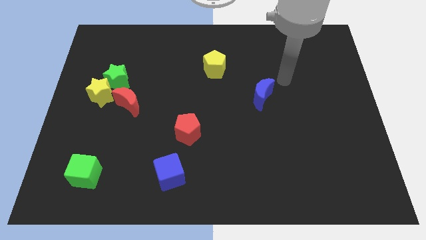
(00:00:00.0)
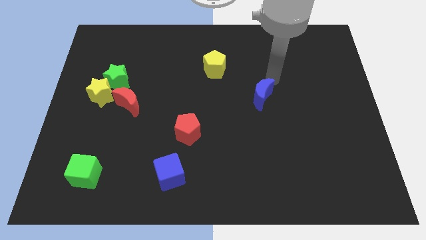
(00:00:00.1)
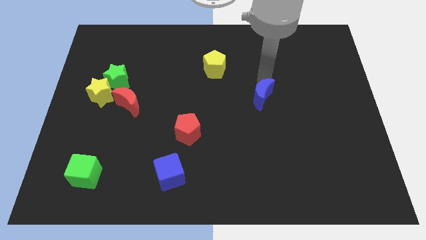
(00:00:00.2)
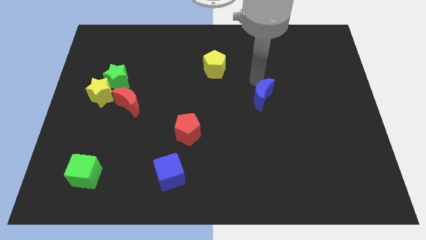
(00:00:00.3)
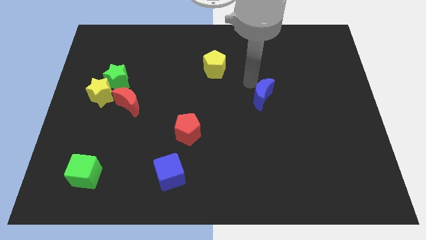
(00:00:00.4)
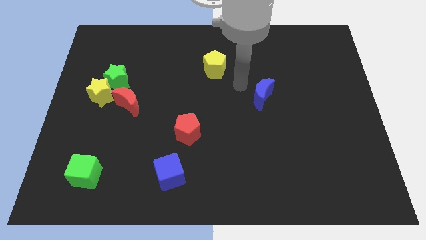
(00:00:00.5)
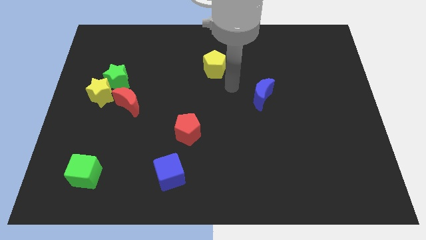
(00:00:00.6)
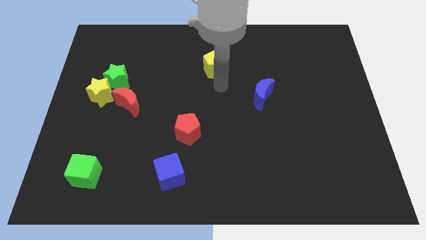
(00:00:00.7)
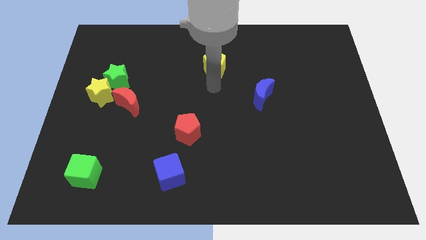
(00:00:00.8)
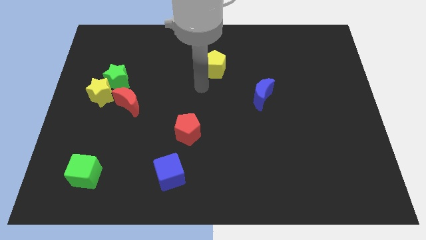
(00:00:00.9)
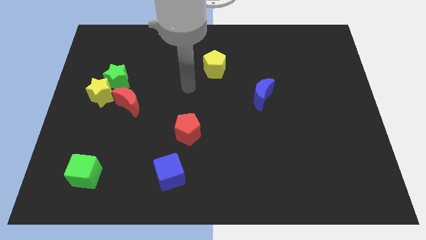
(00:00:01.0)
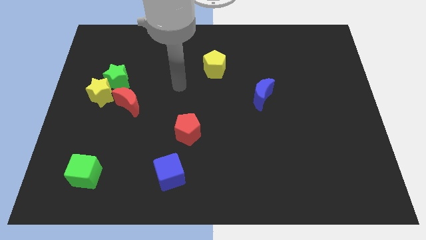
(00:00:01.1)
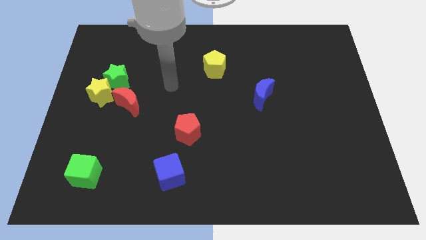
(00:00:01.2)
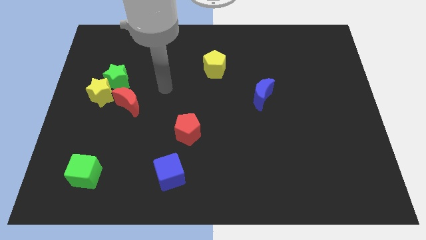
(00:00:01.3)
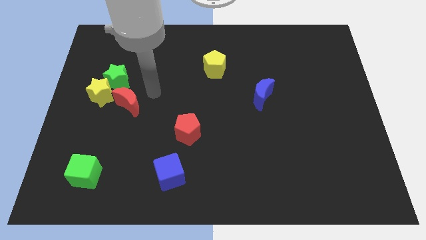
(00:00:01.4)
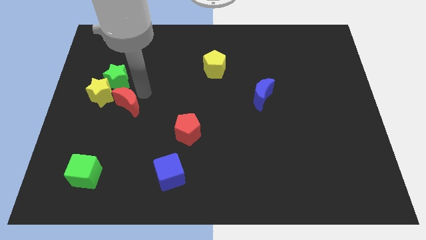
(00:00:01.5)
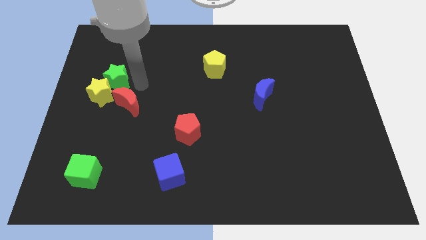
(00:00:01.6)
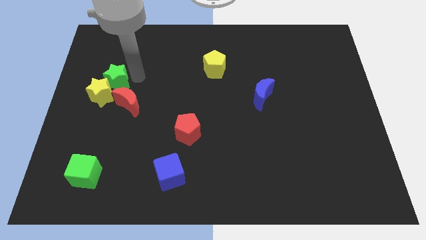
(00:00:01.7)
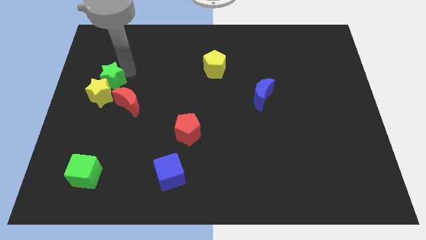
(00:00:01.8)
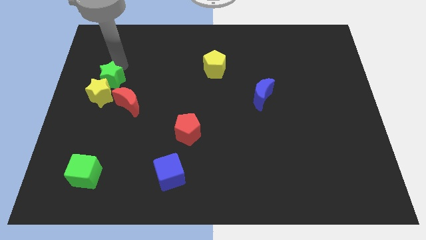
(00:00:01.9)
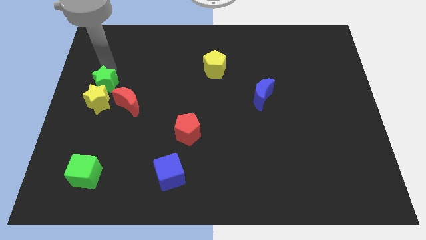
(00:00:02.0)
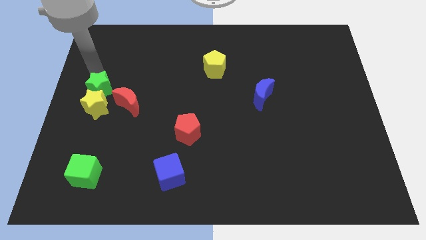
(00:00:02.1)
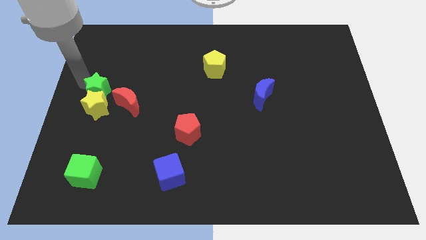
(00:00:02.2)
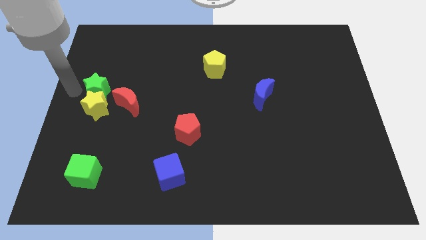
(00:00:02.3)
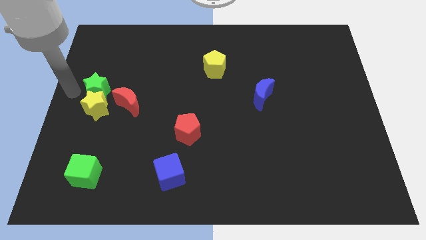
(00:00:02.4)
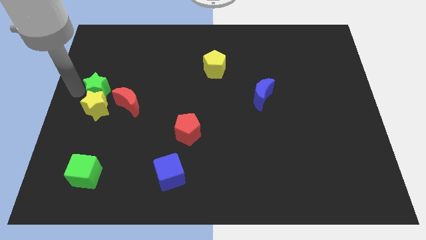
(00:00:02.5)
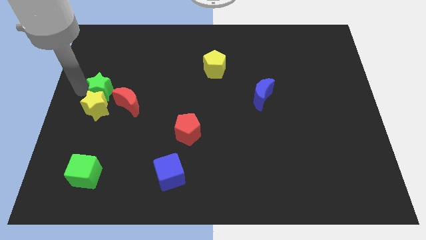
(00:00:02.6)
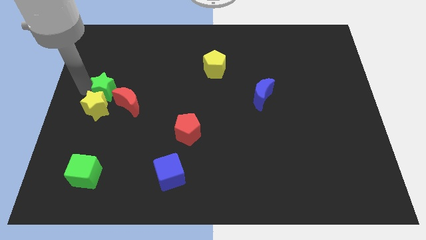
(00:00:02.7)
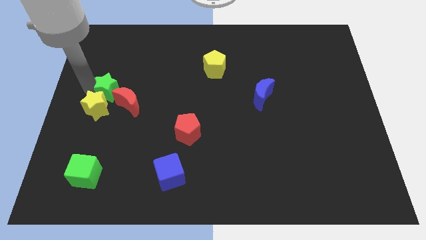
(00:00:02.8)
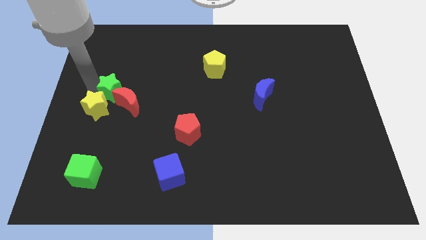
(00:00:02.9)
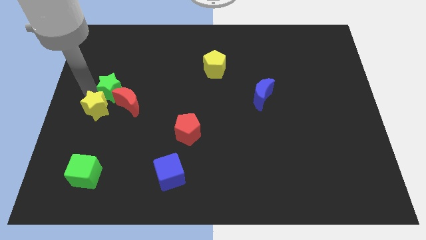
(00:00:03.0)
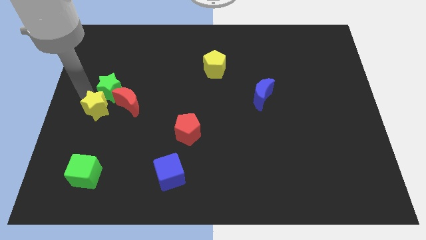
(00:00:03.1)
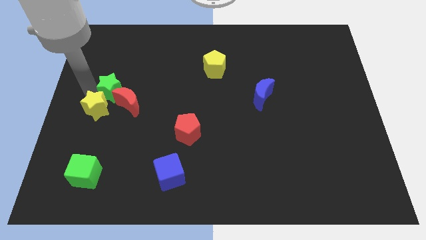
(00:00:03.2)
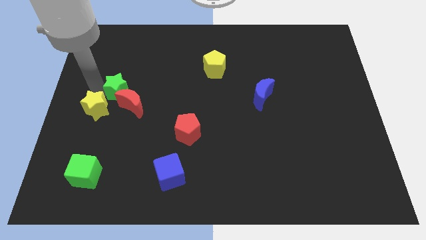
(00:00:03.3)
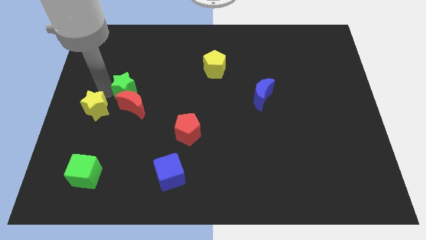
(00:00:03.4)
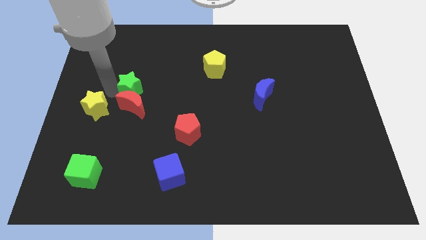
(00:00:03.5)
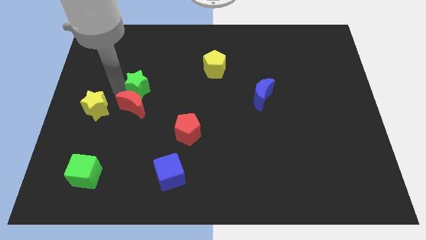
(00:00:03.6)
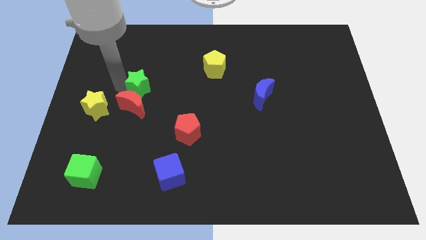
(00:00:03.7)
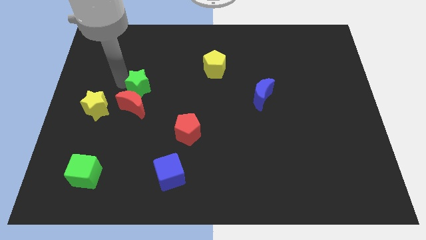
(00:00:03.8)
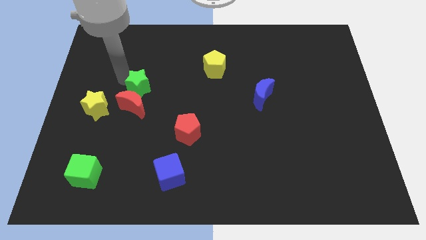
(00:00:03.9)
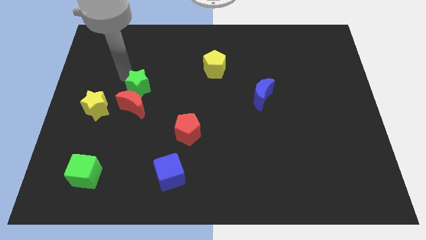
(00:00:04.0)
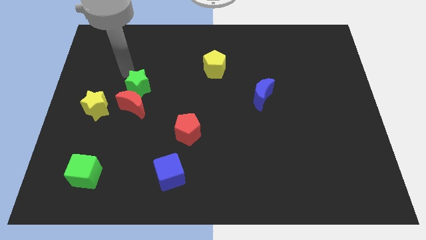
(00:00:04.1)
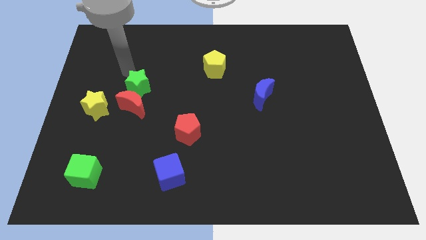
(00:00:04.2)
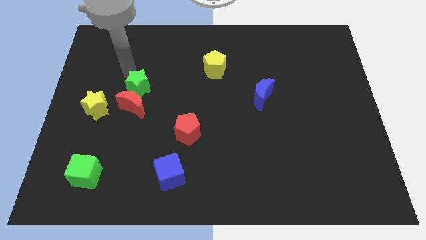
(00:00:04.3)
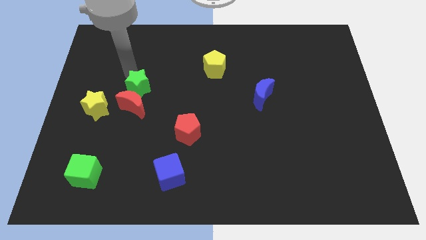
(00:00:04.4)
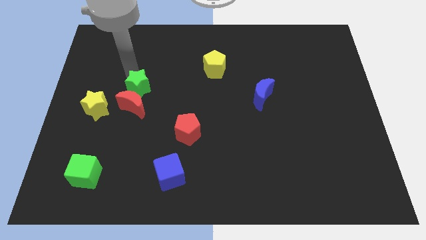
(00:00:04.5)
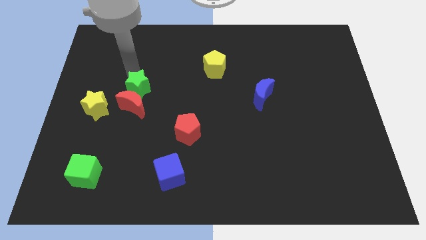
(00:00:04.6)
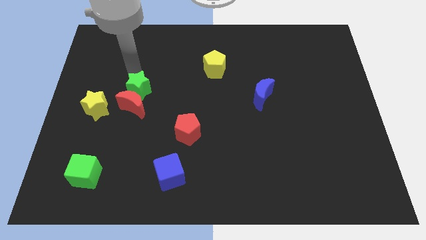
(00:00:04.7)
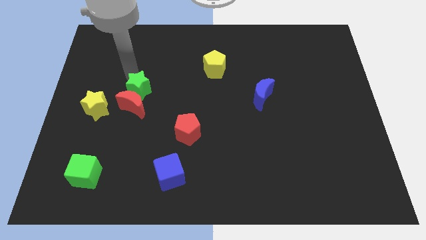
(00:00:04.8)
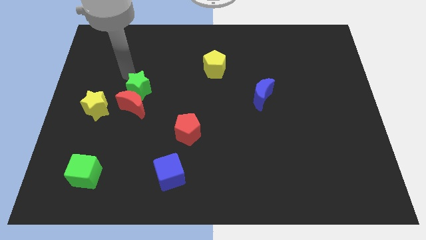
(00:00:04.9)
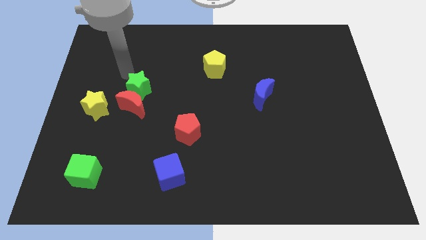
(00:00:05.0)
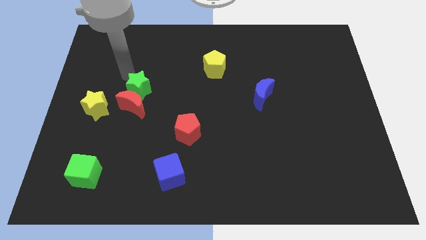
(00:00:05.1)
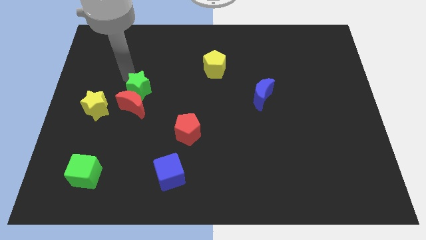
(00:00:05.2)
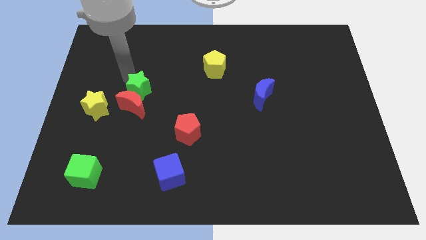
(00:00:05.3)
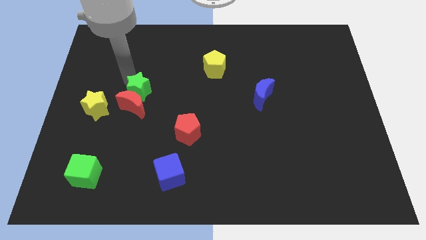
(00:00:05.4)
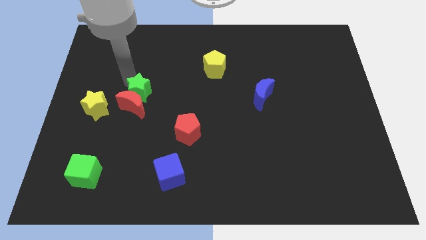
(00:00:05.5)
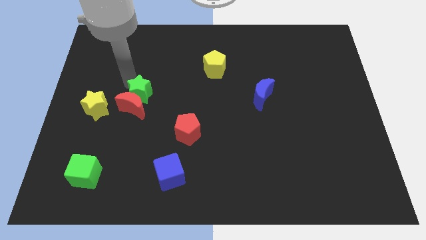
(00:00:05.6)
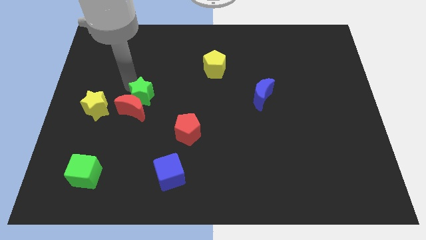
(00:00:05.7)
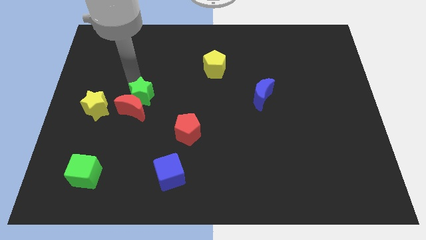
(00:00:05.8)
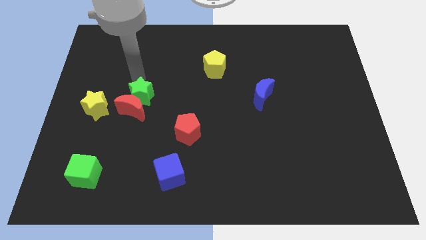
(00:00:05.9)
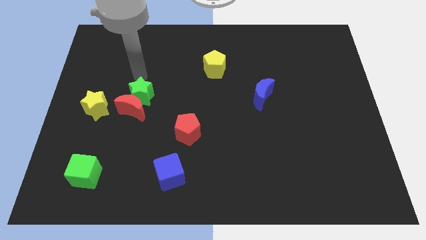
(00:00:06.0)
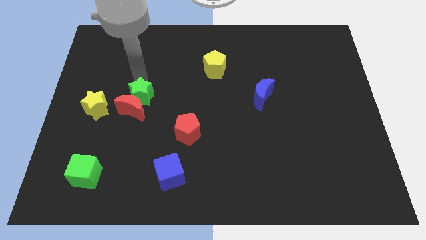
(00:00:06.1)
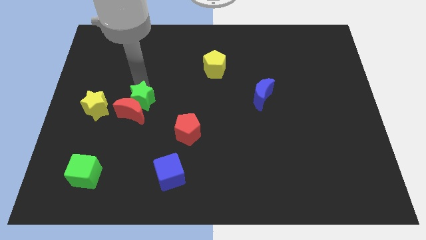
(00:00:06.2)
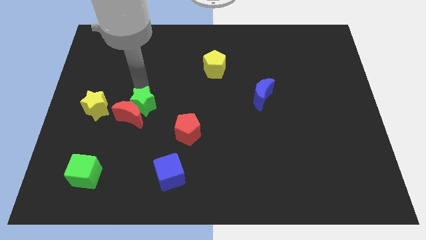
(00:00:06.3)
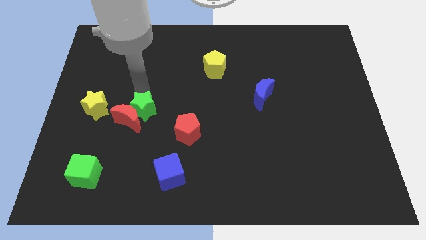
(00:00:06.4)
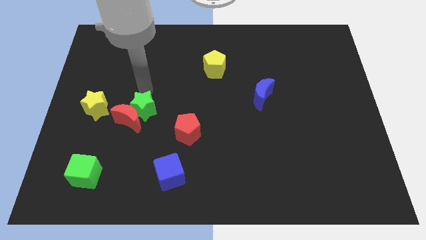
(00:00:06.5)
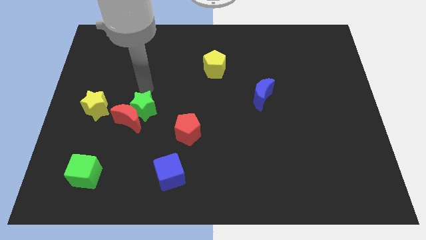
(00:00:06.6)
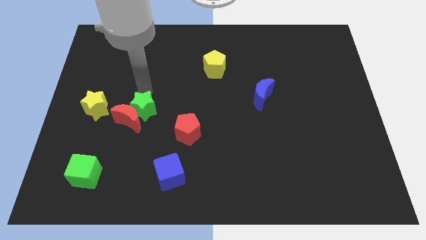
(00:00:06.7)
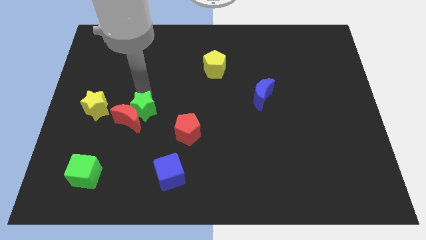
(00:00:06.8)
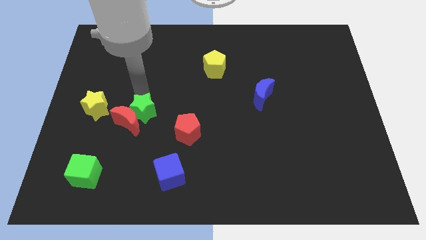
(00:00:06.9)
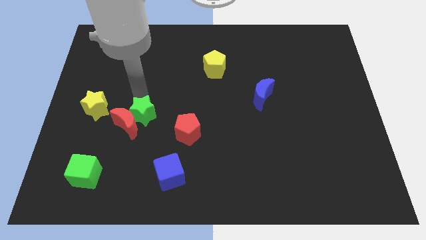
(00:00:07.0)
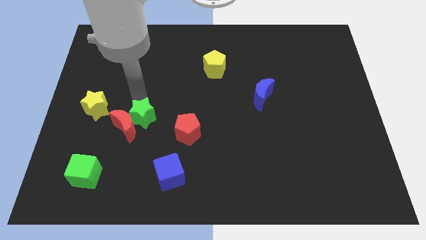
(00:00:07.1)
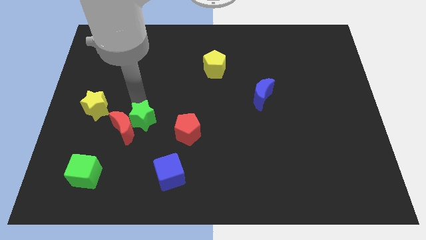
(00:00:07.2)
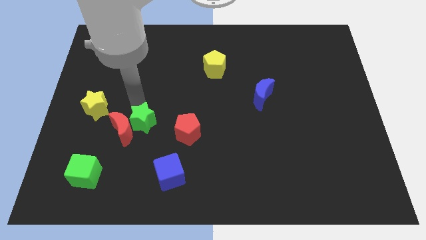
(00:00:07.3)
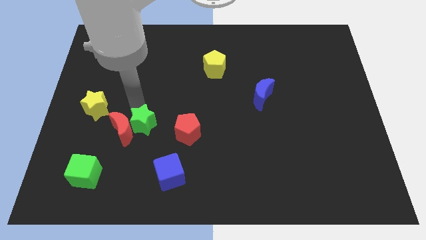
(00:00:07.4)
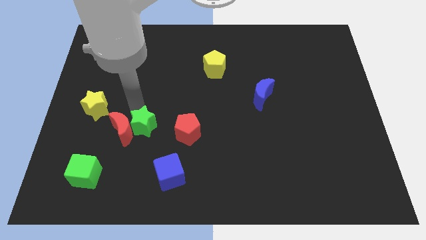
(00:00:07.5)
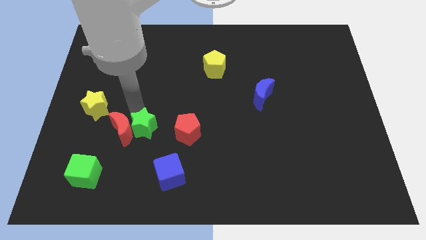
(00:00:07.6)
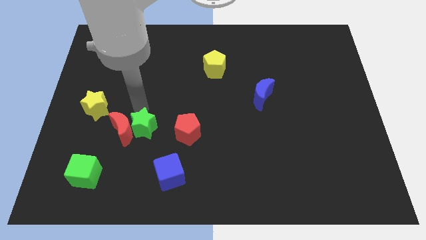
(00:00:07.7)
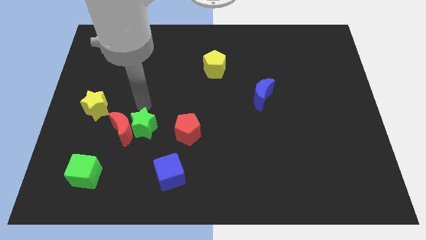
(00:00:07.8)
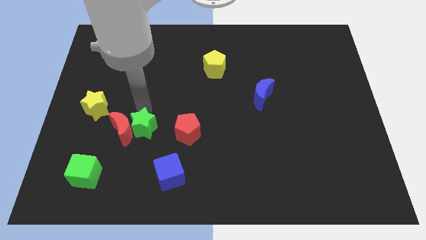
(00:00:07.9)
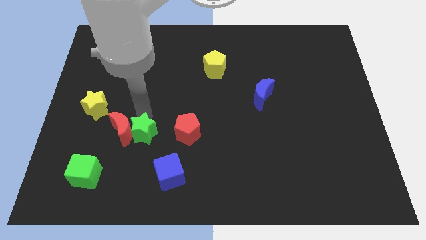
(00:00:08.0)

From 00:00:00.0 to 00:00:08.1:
push the green star to the top left side of the blue cube
